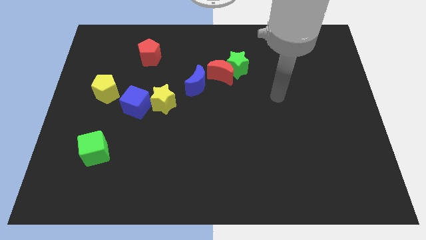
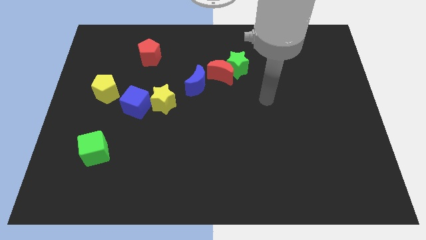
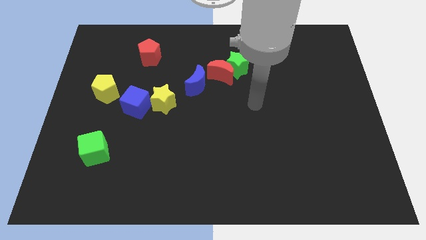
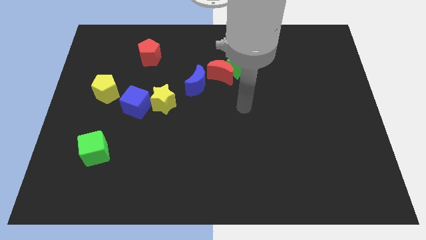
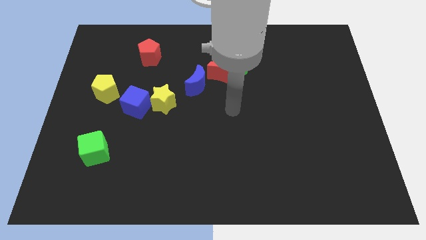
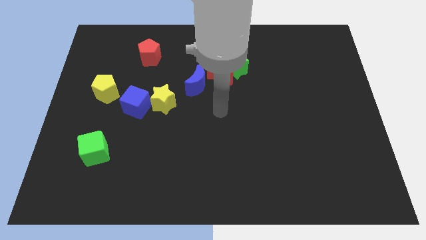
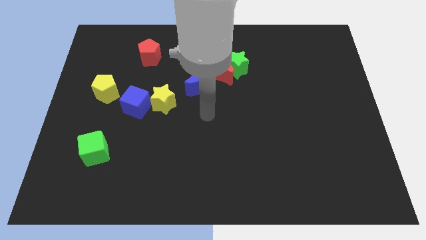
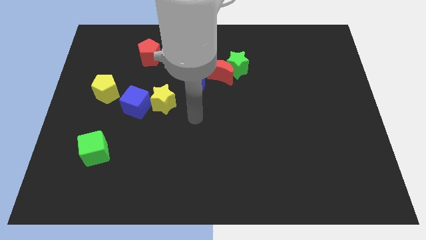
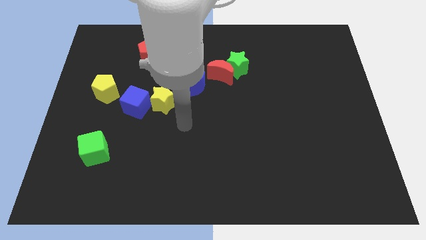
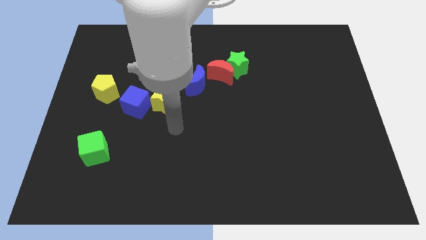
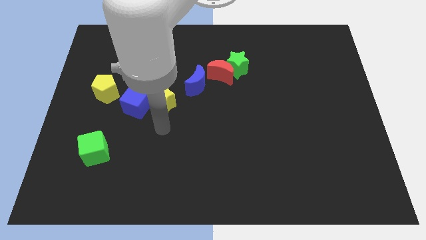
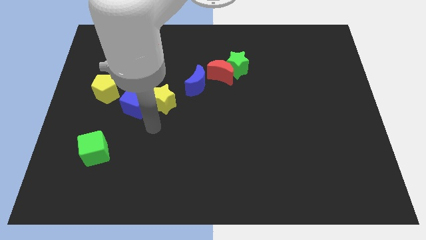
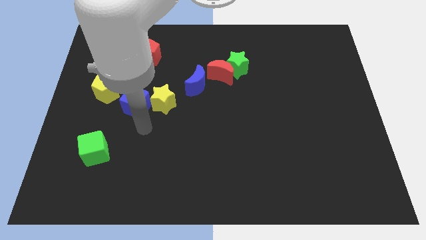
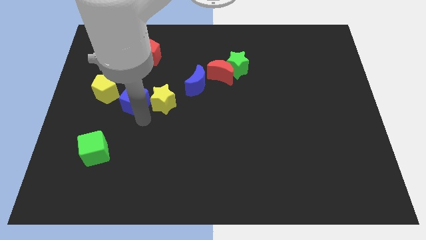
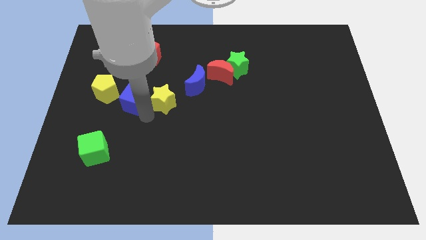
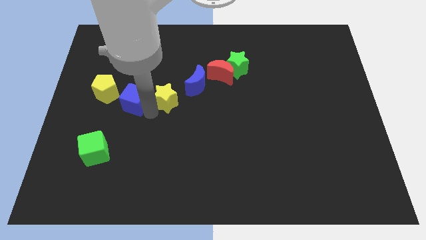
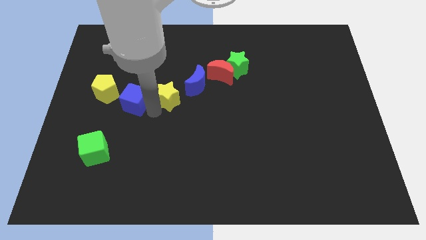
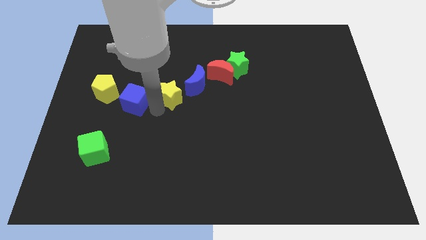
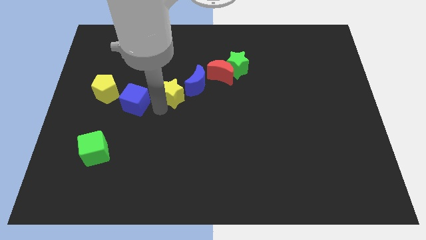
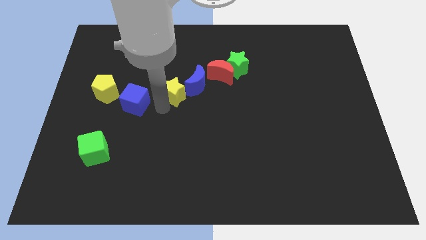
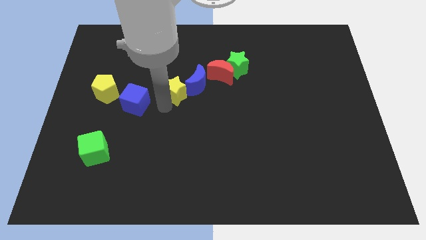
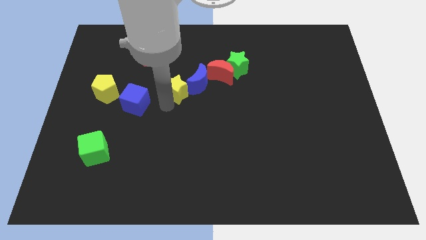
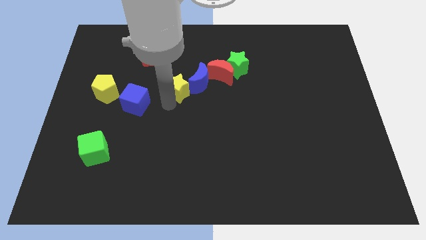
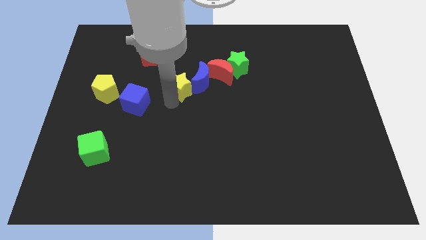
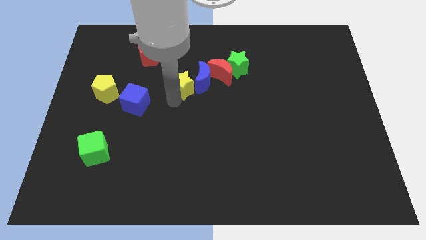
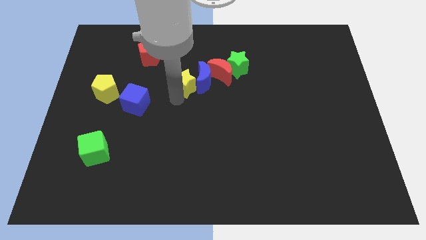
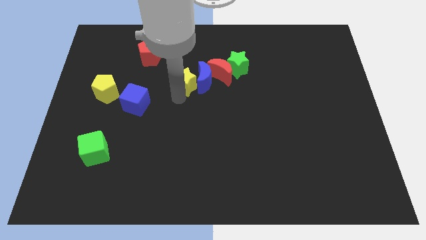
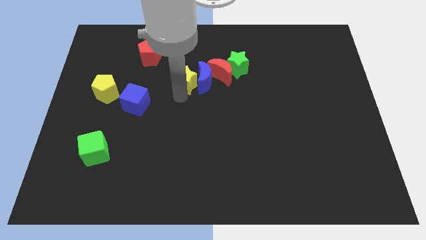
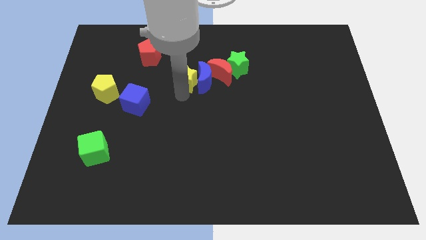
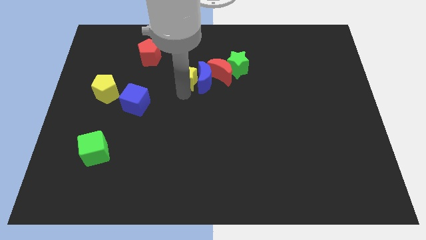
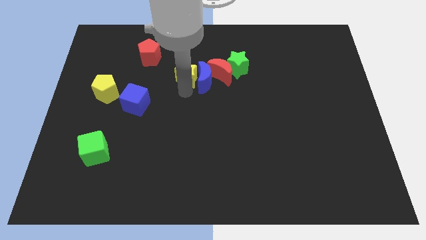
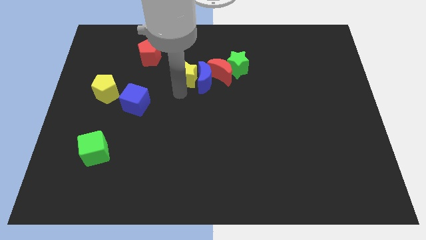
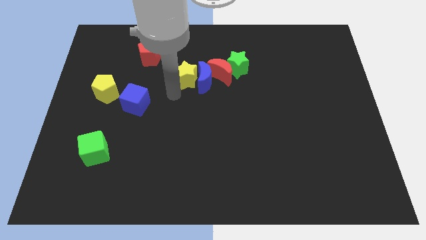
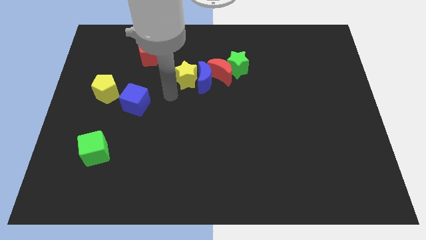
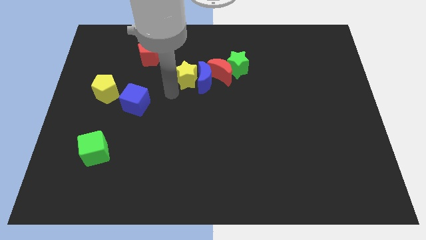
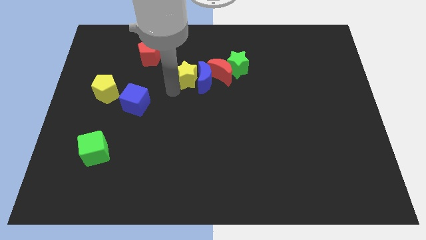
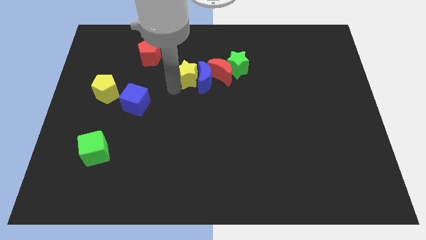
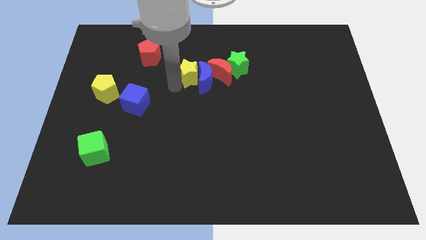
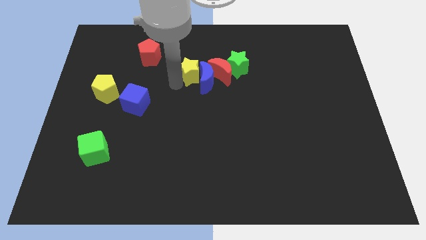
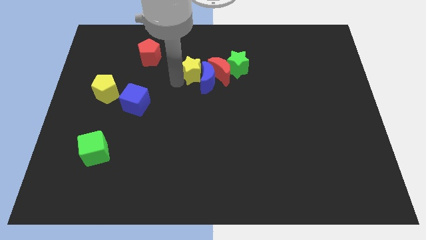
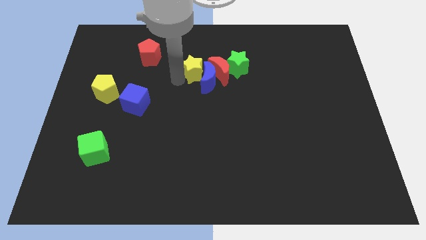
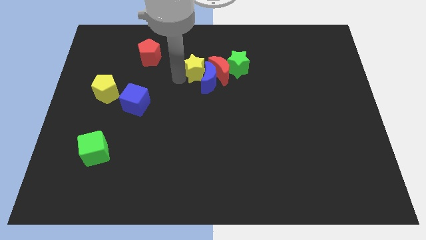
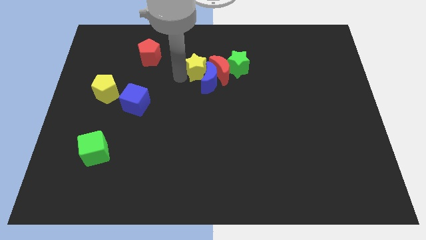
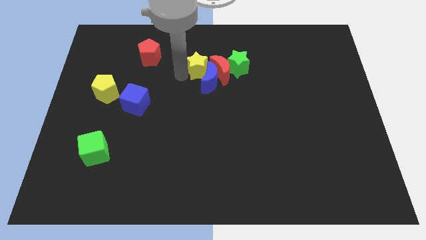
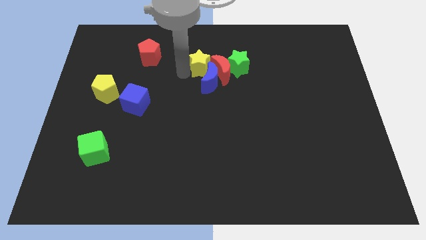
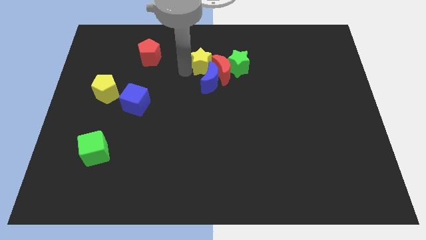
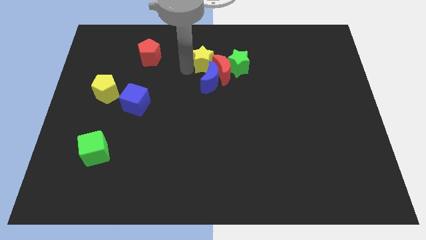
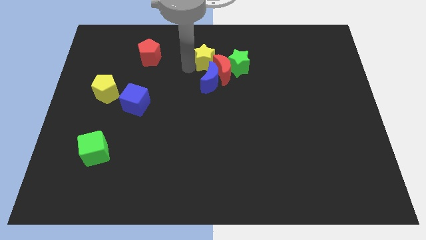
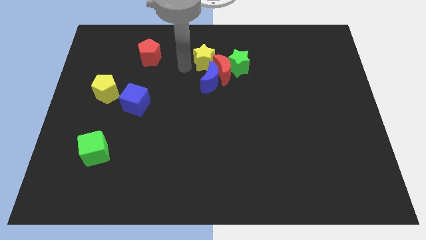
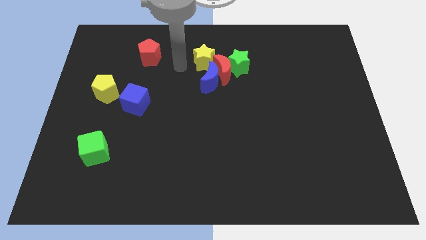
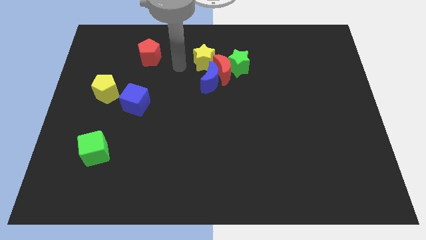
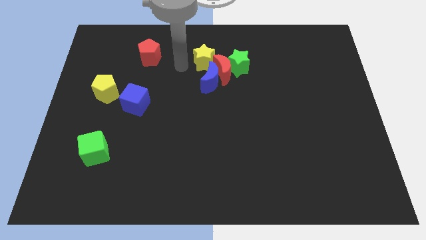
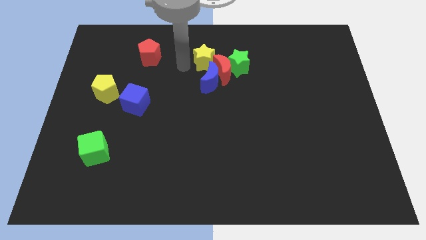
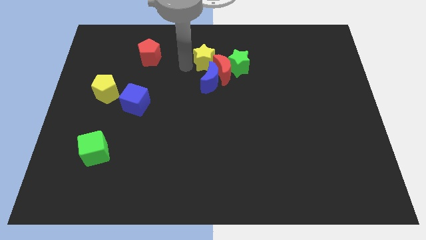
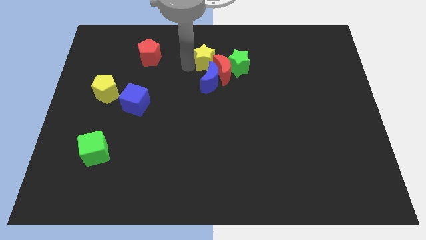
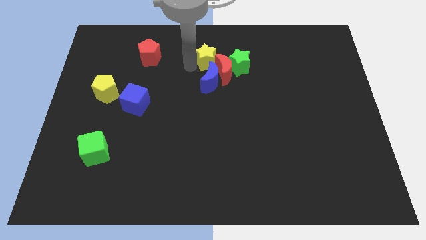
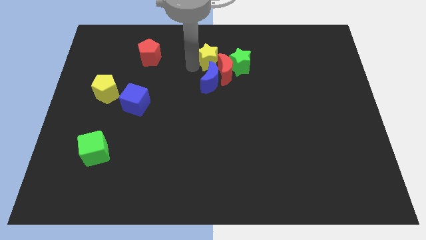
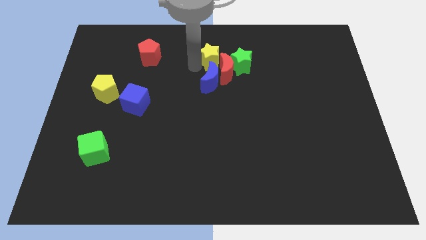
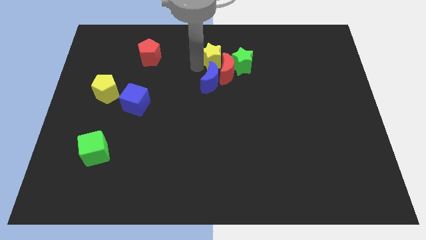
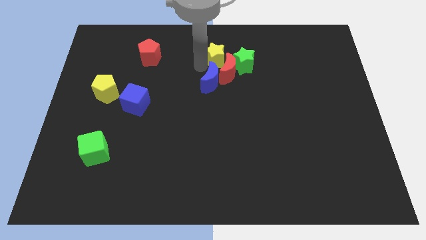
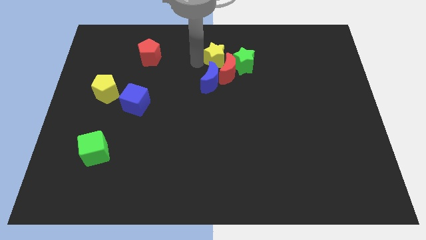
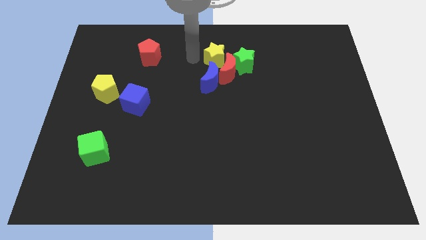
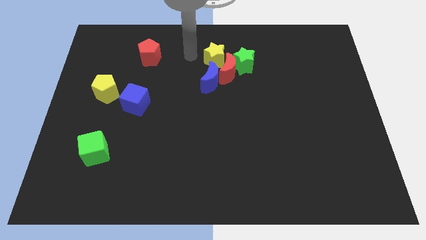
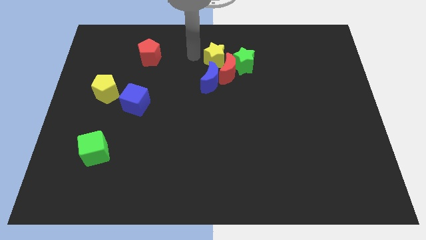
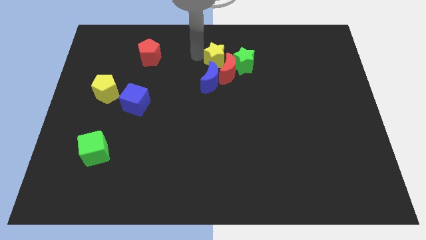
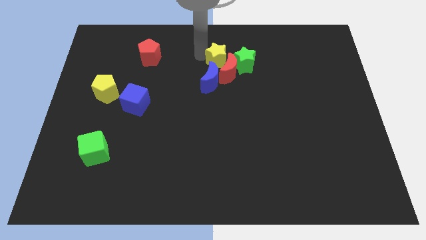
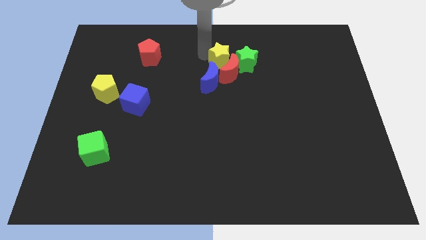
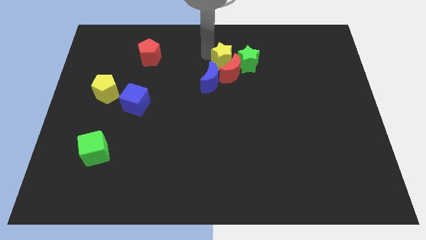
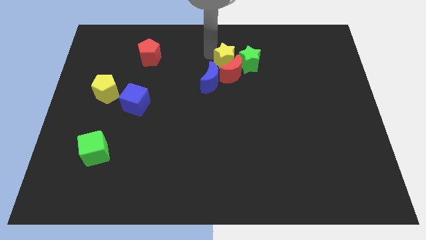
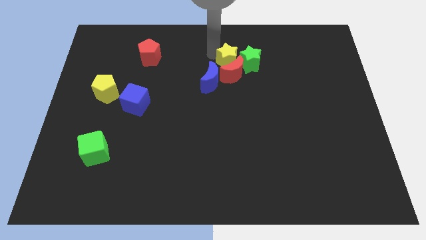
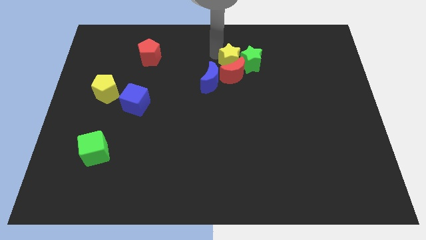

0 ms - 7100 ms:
put the yellow star close to the green star
